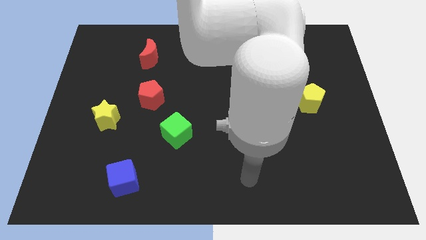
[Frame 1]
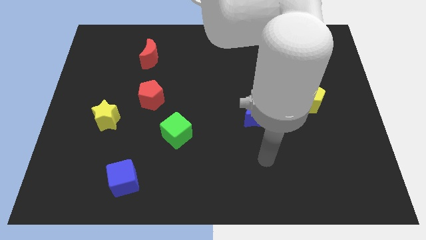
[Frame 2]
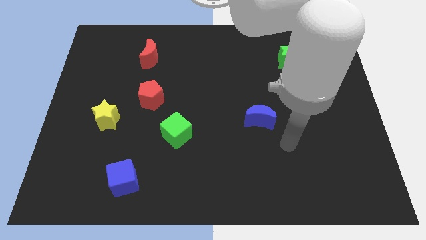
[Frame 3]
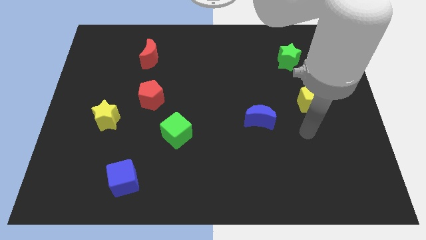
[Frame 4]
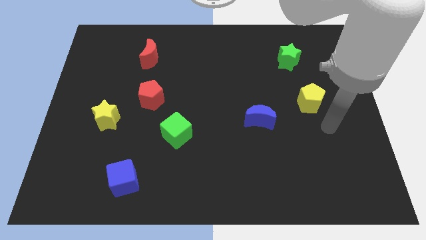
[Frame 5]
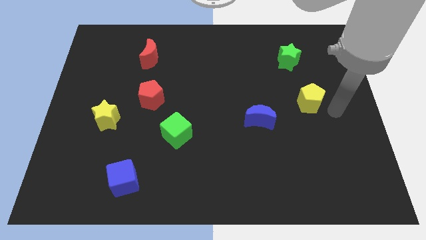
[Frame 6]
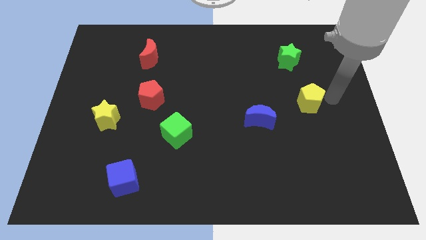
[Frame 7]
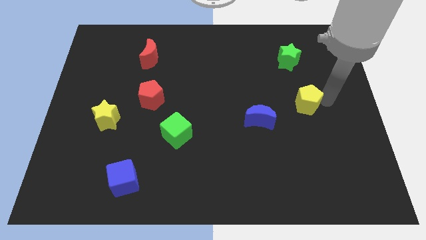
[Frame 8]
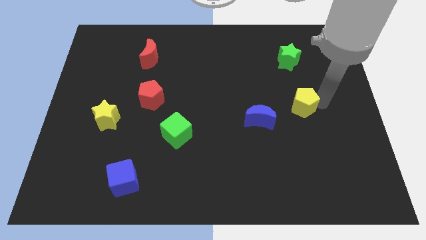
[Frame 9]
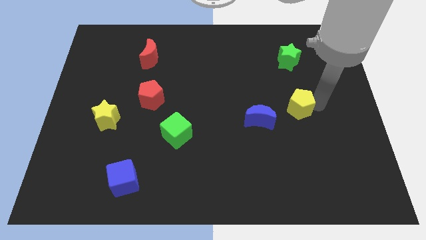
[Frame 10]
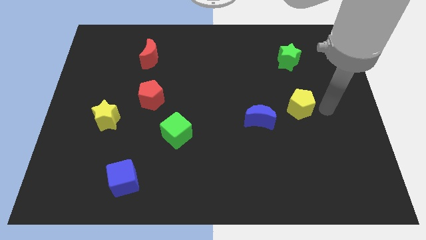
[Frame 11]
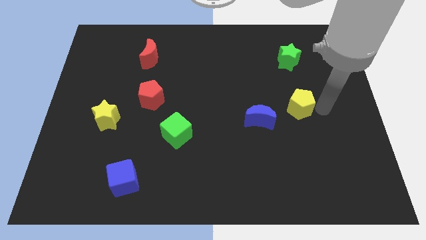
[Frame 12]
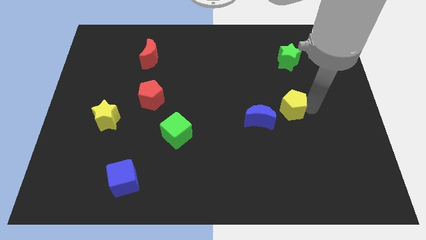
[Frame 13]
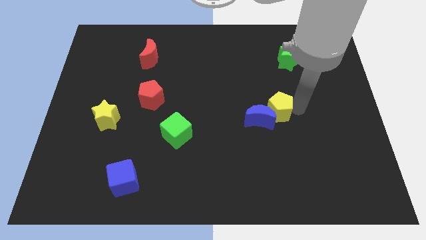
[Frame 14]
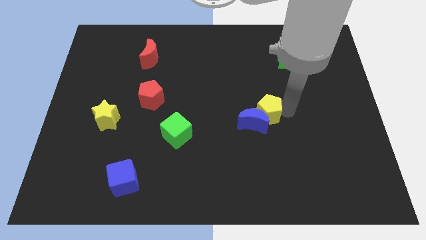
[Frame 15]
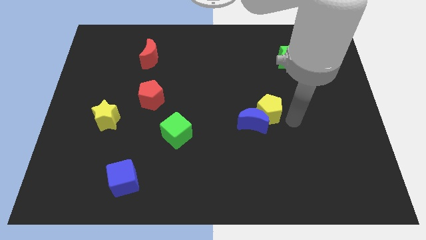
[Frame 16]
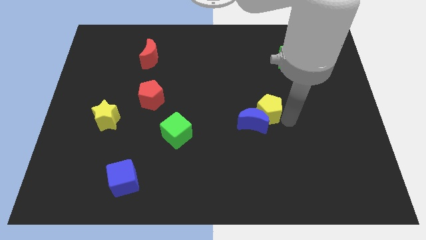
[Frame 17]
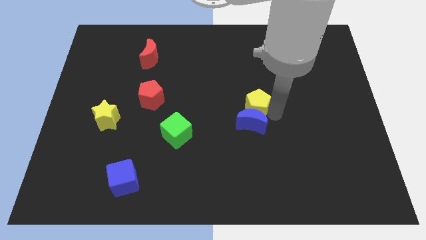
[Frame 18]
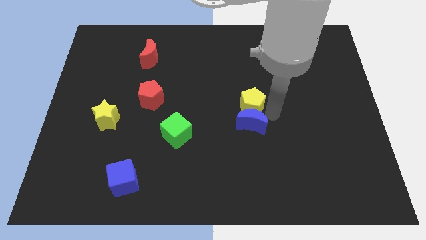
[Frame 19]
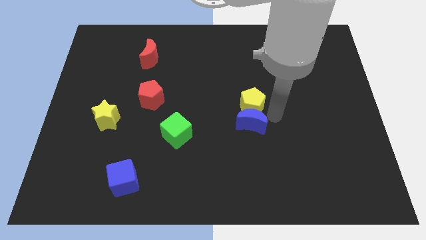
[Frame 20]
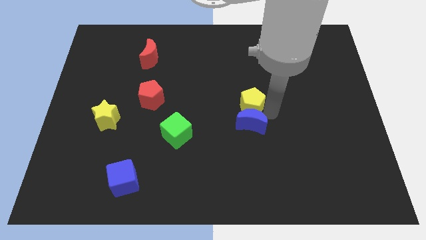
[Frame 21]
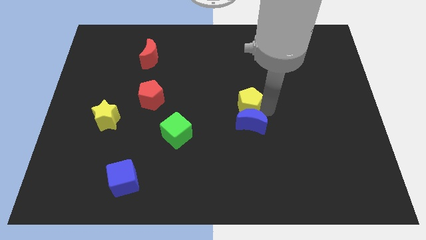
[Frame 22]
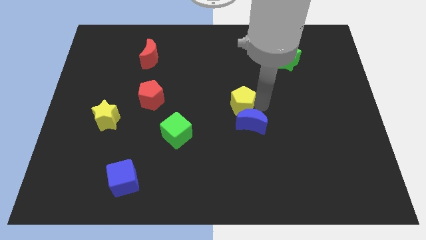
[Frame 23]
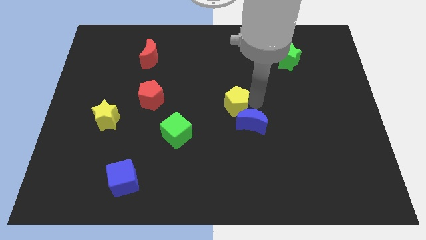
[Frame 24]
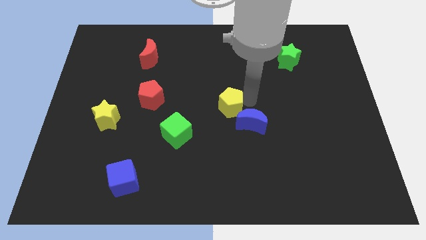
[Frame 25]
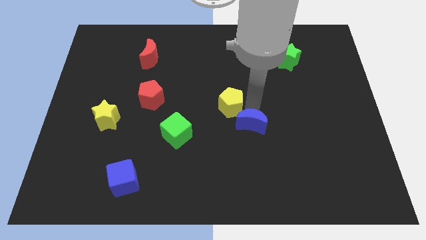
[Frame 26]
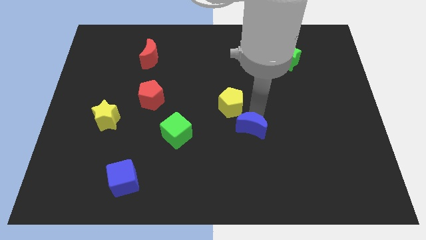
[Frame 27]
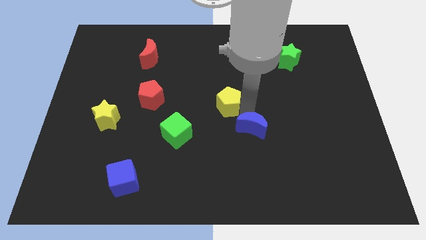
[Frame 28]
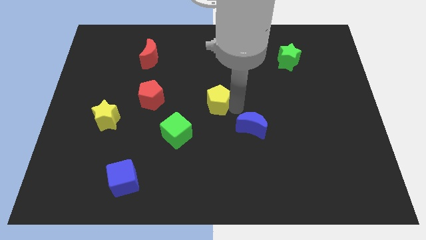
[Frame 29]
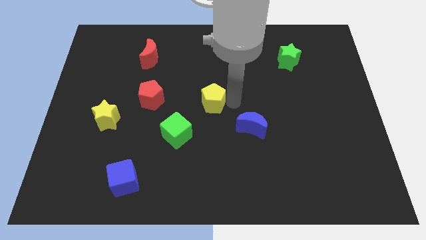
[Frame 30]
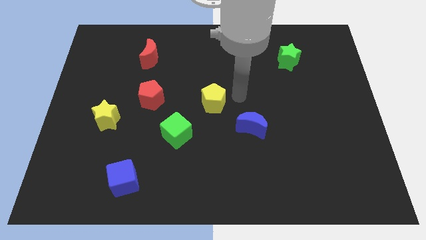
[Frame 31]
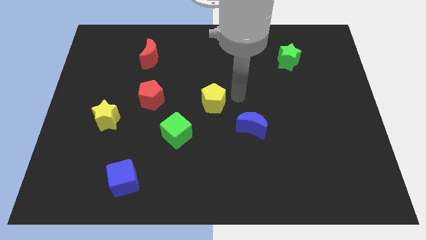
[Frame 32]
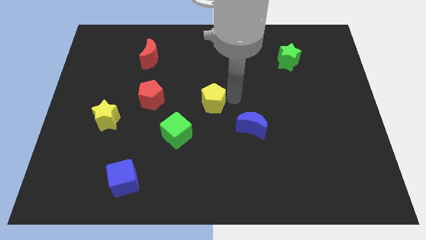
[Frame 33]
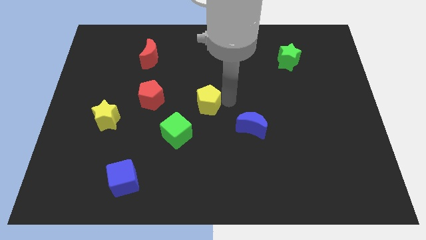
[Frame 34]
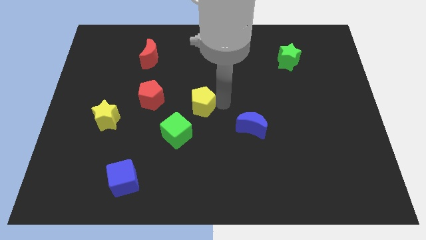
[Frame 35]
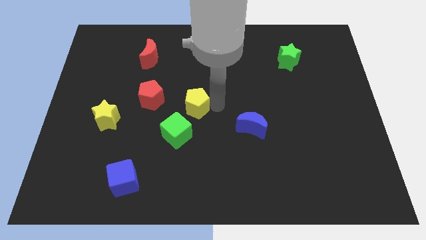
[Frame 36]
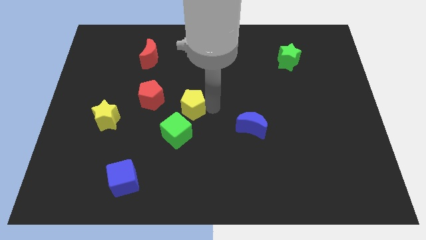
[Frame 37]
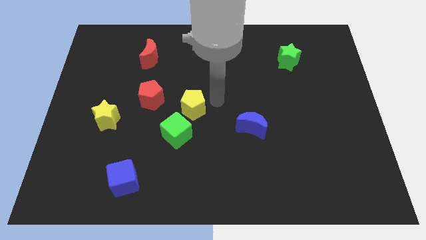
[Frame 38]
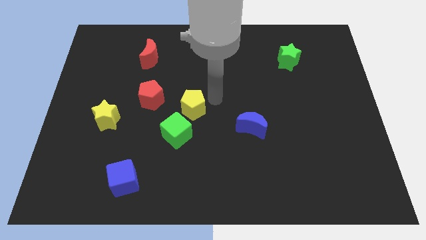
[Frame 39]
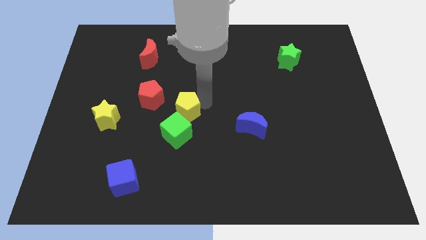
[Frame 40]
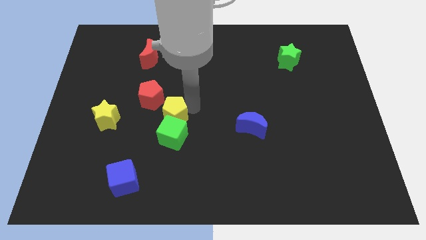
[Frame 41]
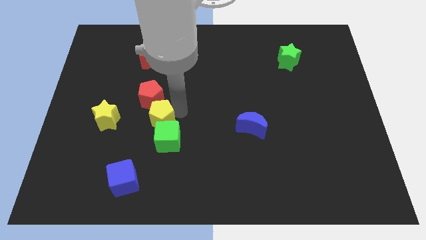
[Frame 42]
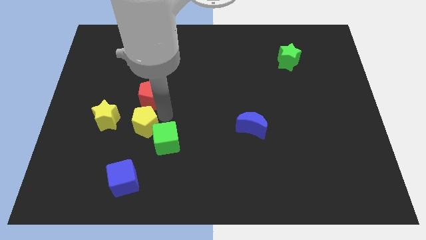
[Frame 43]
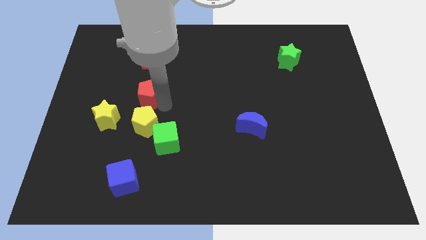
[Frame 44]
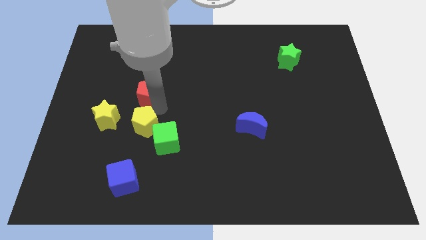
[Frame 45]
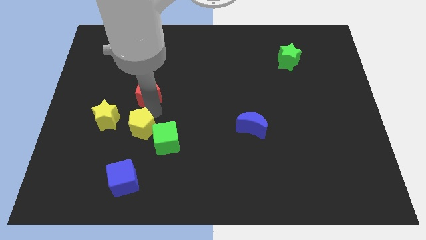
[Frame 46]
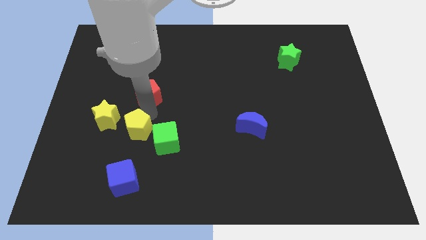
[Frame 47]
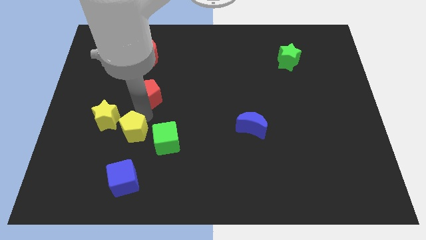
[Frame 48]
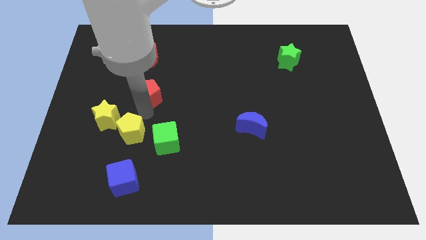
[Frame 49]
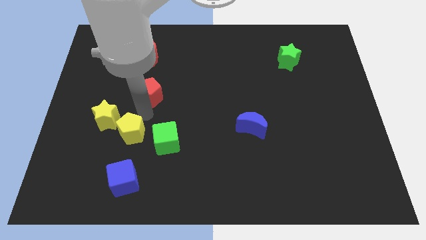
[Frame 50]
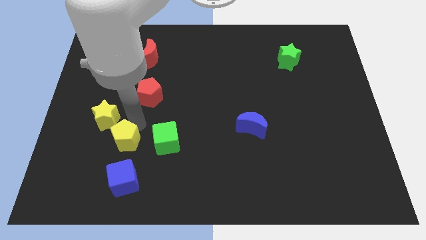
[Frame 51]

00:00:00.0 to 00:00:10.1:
put the yellow pentagon to the bottom side of the yellow star

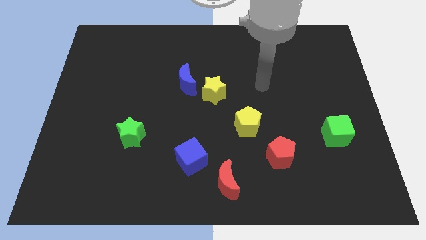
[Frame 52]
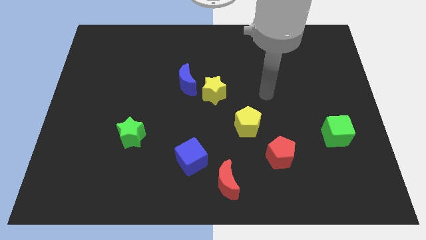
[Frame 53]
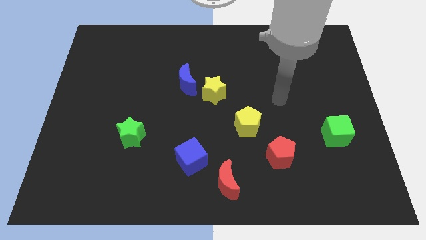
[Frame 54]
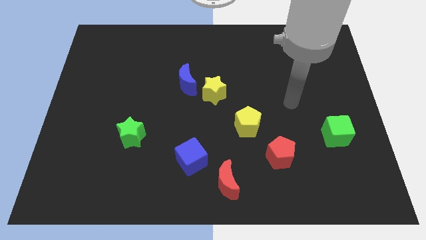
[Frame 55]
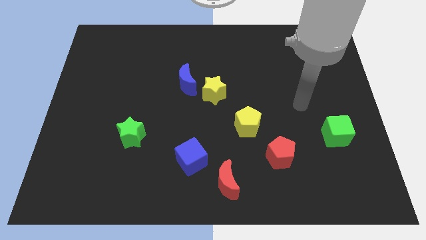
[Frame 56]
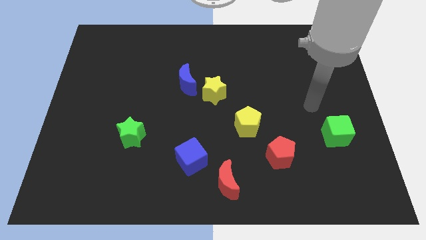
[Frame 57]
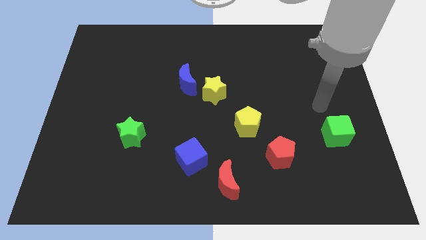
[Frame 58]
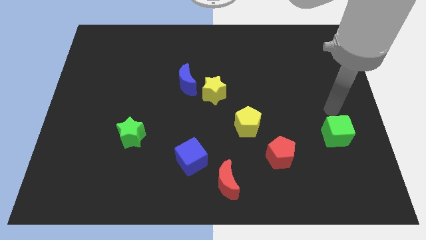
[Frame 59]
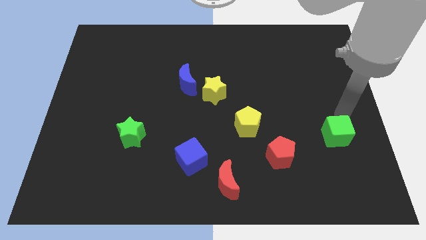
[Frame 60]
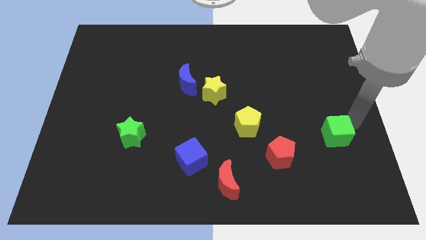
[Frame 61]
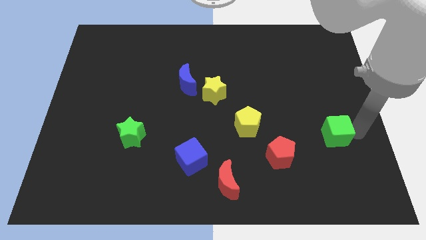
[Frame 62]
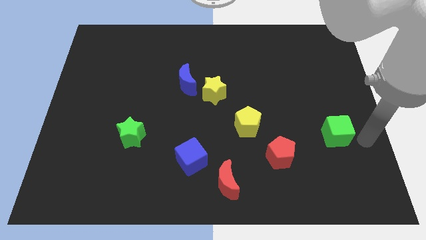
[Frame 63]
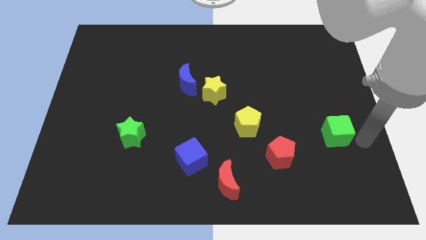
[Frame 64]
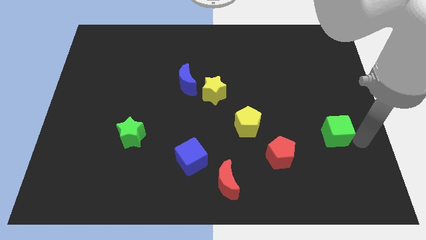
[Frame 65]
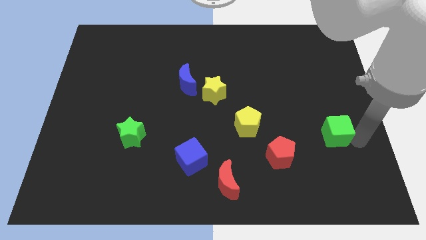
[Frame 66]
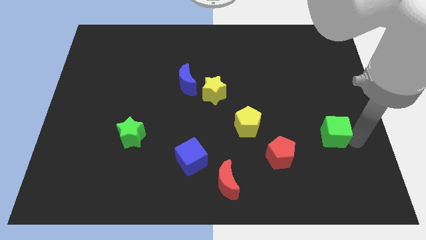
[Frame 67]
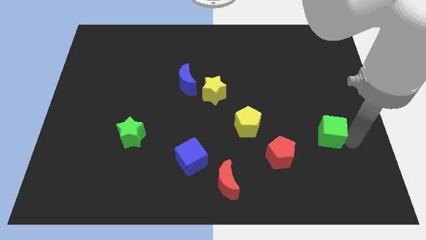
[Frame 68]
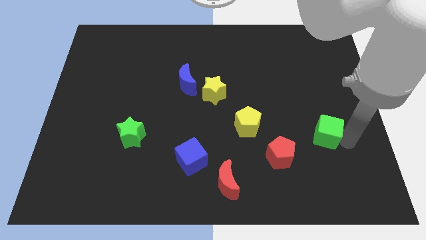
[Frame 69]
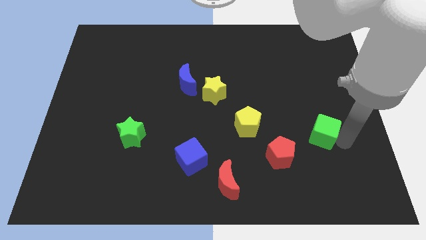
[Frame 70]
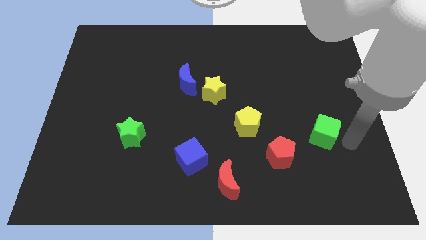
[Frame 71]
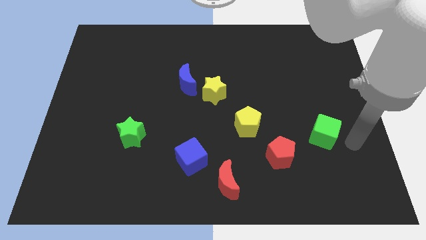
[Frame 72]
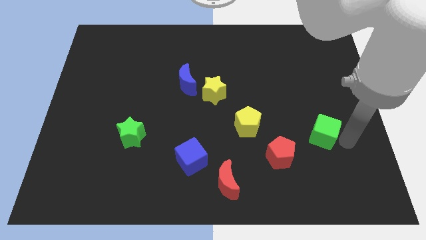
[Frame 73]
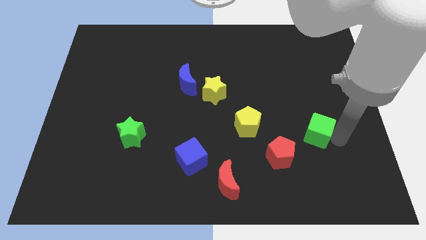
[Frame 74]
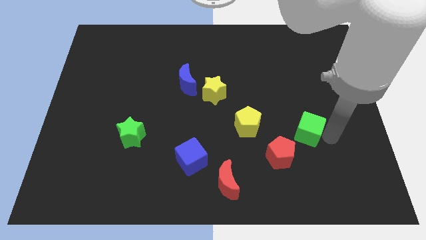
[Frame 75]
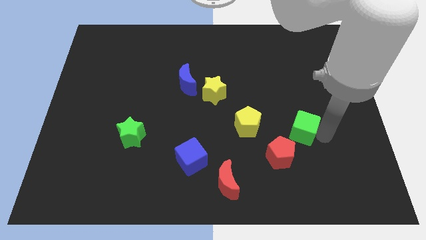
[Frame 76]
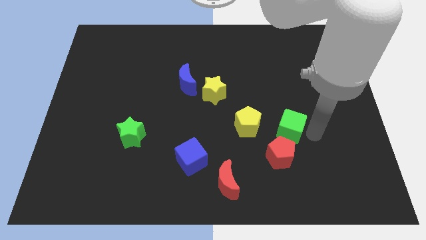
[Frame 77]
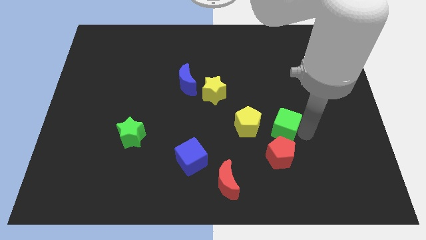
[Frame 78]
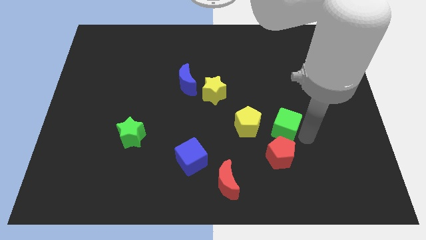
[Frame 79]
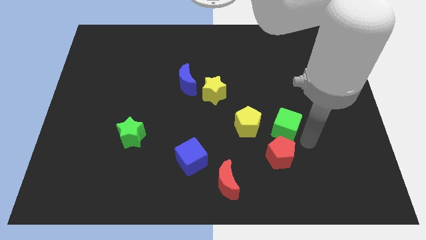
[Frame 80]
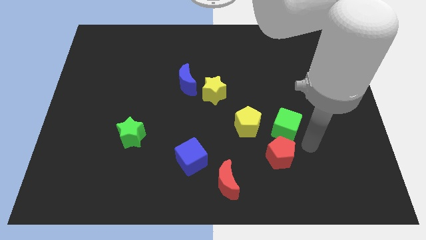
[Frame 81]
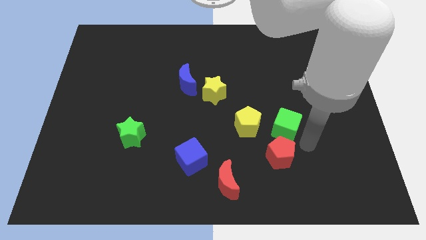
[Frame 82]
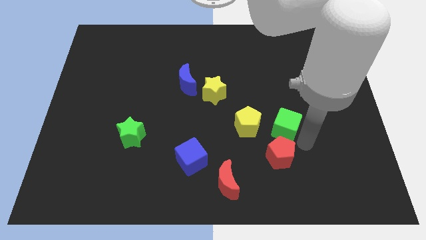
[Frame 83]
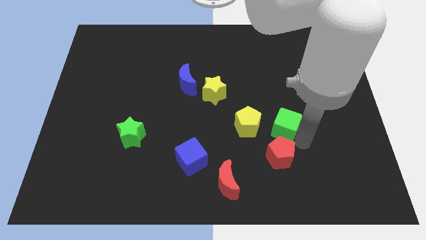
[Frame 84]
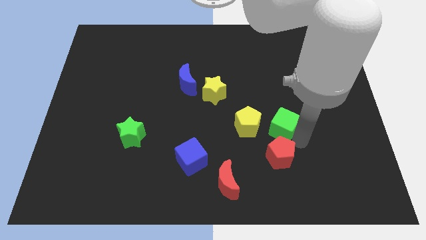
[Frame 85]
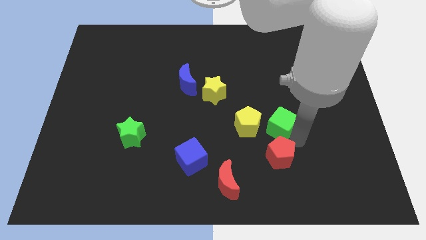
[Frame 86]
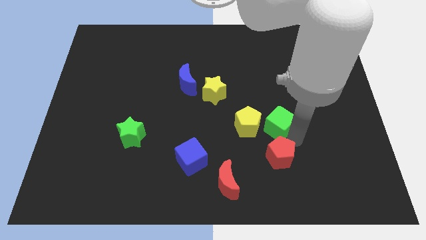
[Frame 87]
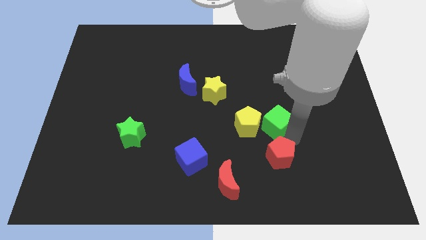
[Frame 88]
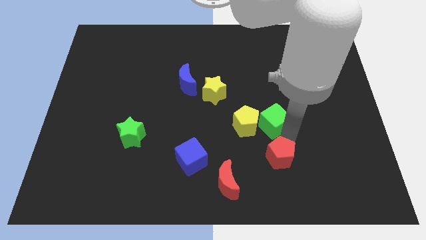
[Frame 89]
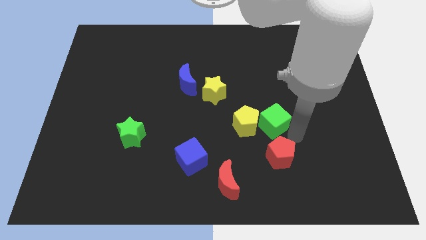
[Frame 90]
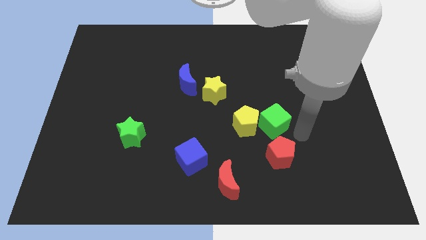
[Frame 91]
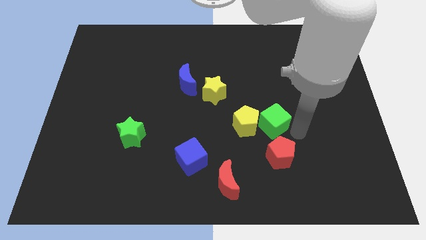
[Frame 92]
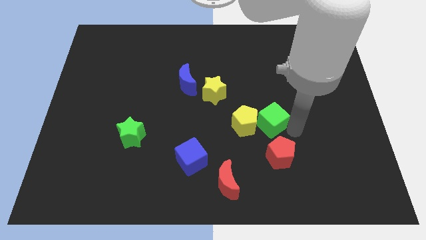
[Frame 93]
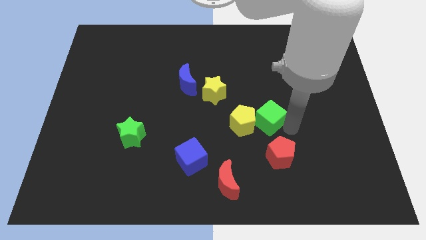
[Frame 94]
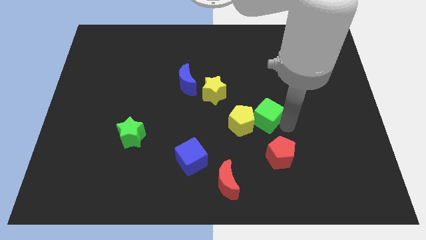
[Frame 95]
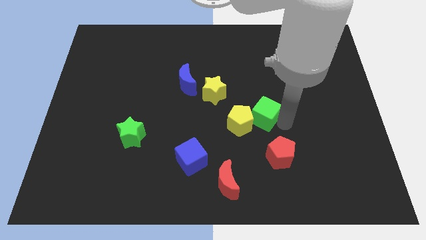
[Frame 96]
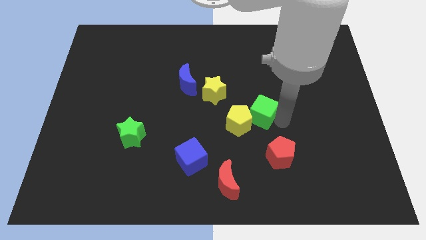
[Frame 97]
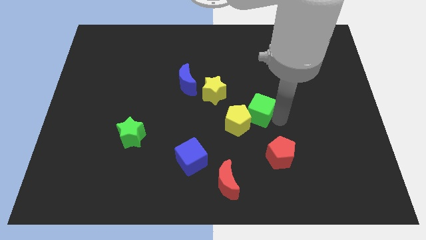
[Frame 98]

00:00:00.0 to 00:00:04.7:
slide the green cube diagonally down and to the right of the yellow star
